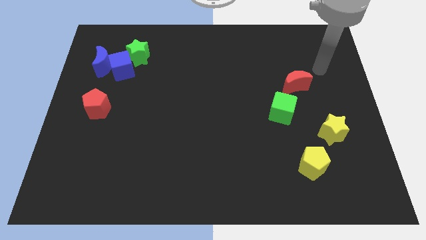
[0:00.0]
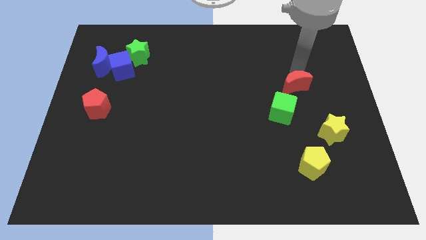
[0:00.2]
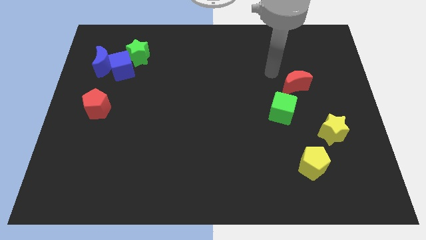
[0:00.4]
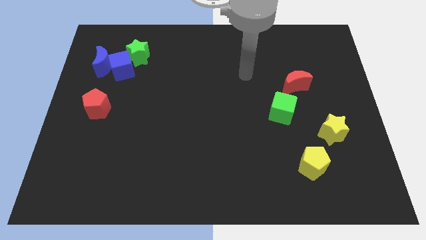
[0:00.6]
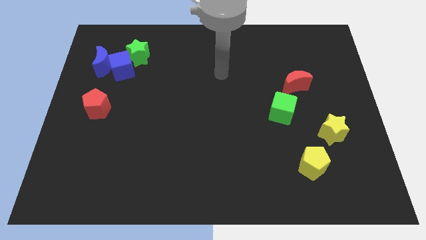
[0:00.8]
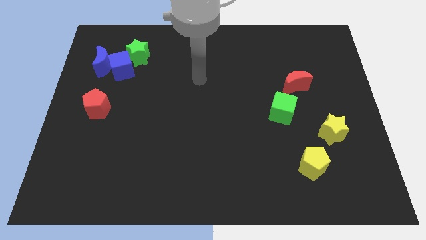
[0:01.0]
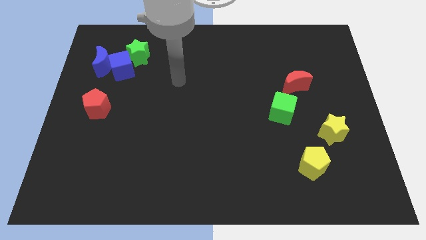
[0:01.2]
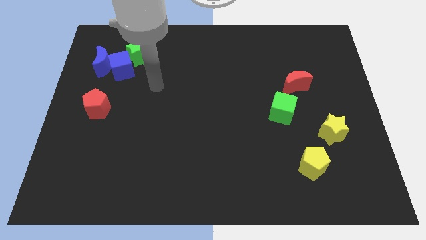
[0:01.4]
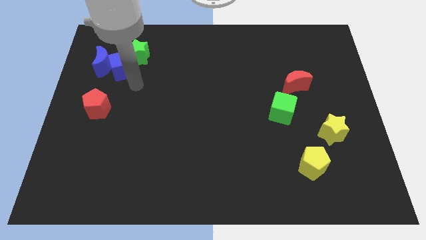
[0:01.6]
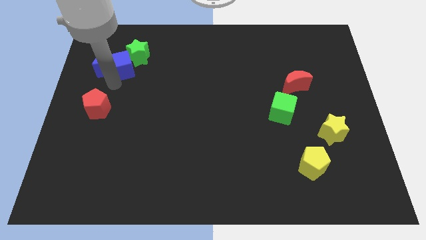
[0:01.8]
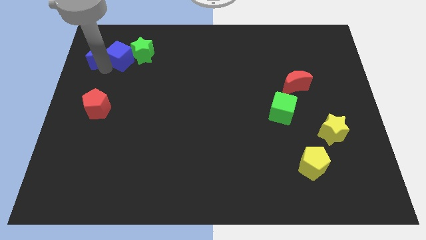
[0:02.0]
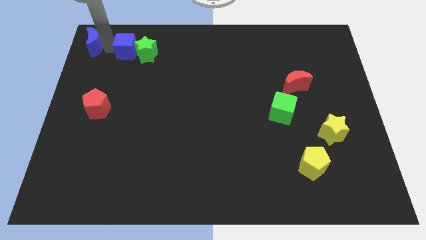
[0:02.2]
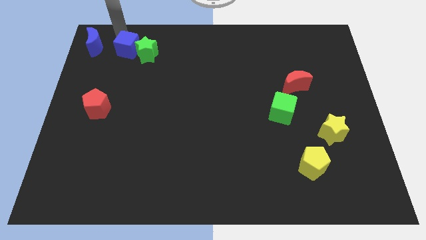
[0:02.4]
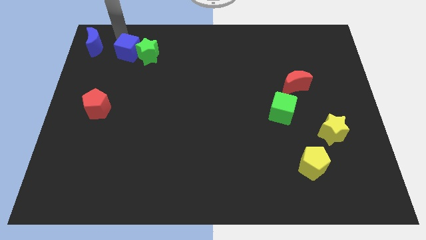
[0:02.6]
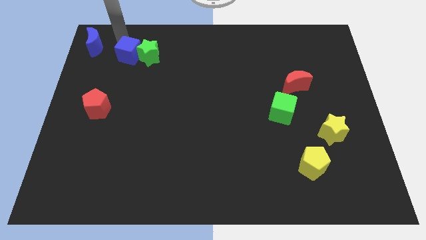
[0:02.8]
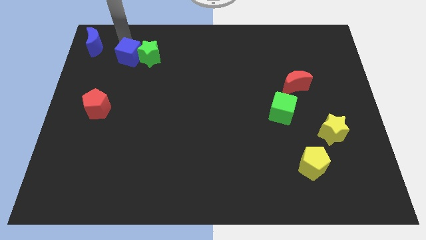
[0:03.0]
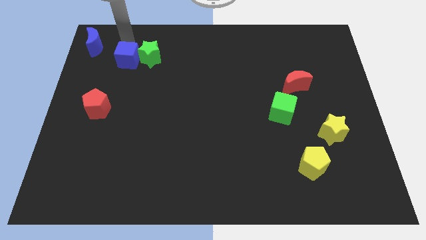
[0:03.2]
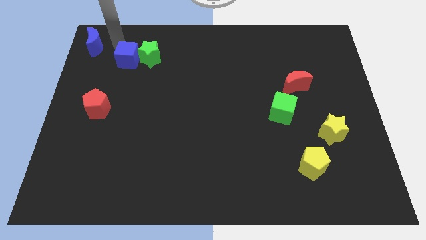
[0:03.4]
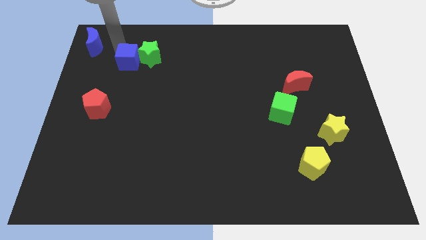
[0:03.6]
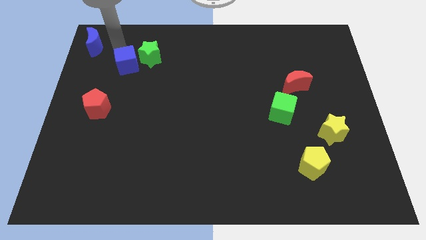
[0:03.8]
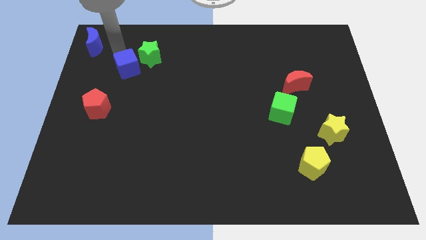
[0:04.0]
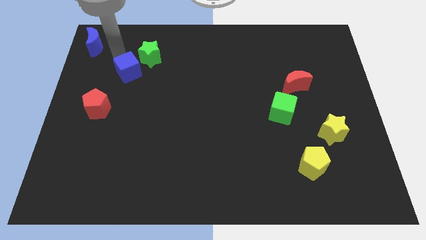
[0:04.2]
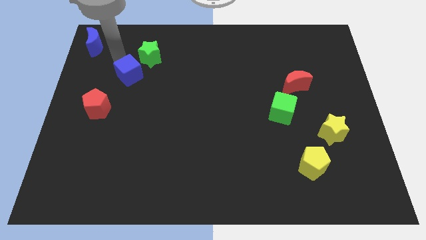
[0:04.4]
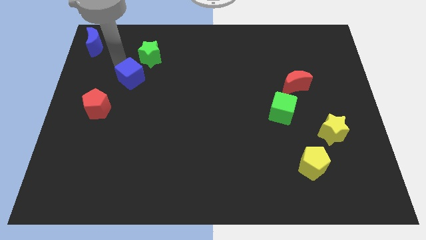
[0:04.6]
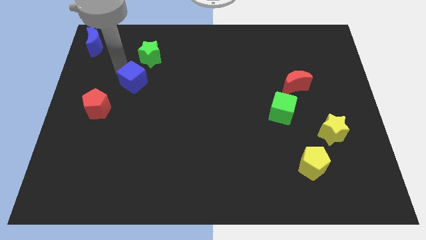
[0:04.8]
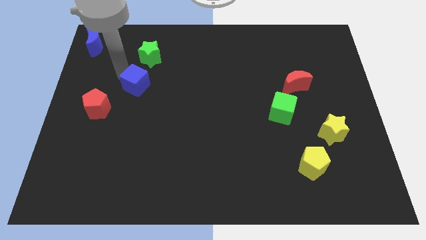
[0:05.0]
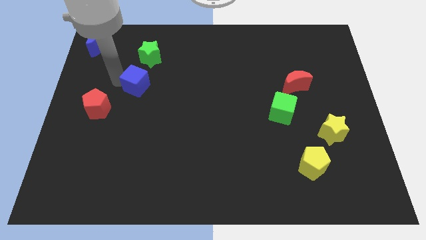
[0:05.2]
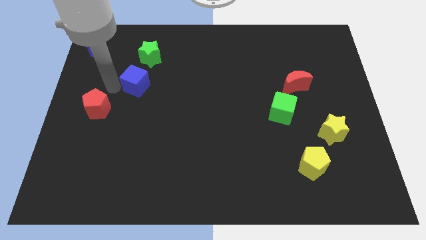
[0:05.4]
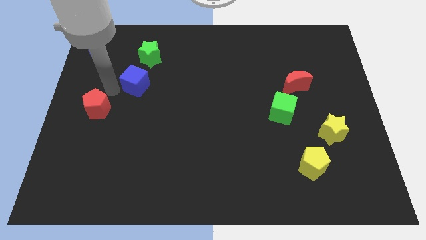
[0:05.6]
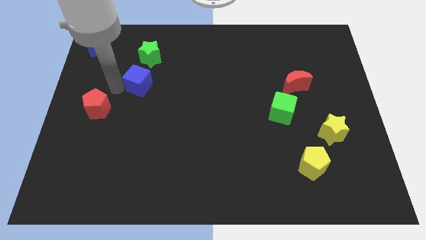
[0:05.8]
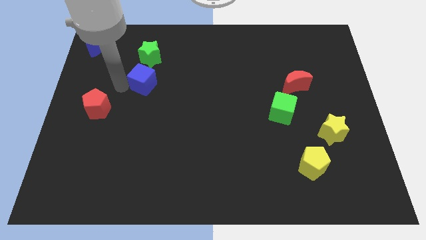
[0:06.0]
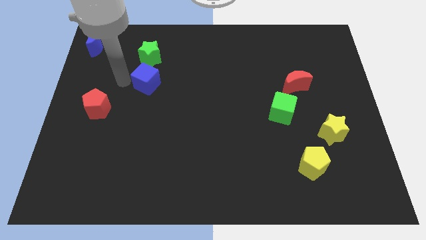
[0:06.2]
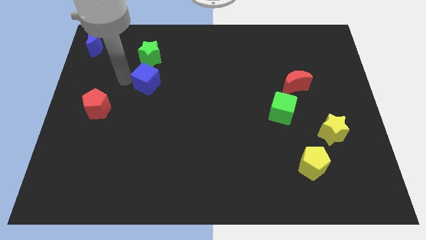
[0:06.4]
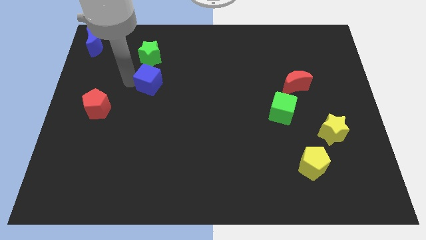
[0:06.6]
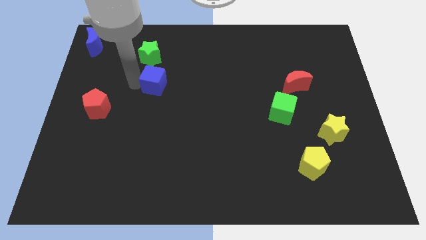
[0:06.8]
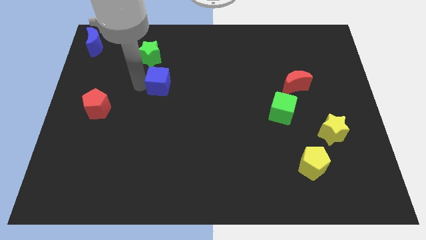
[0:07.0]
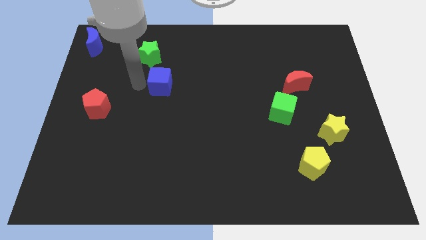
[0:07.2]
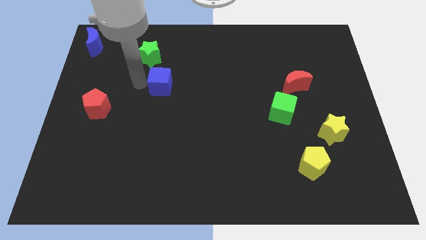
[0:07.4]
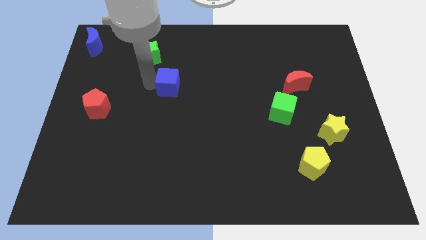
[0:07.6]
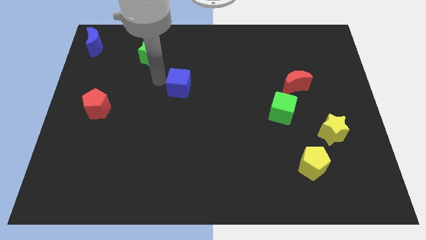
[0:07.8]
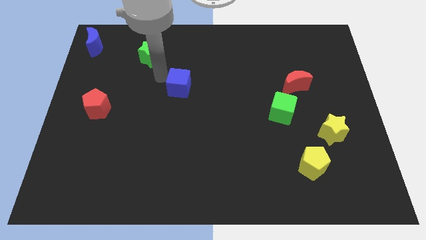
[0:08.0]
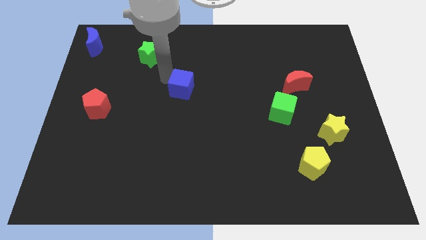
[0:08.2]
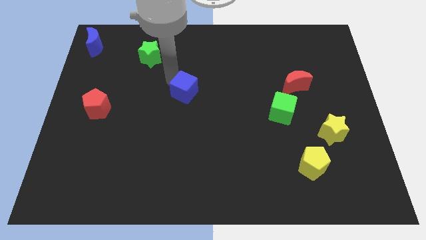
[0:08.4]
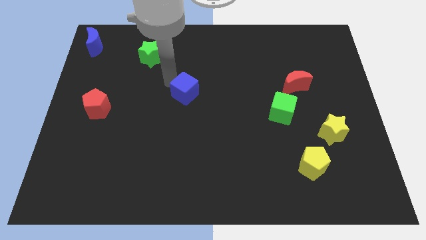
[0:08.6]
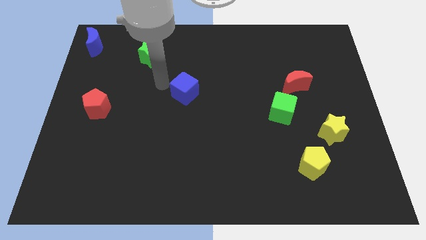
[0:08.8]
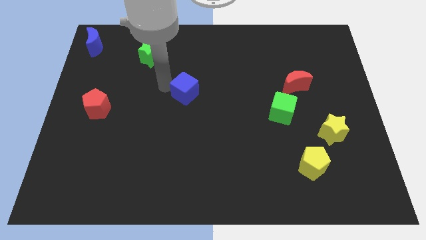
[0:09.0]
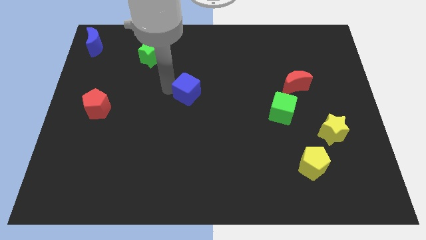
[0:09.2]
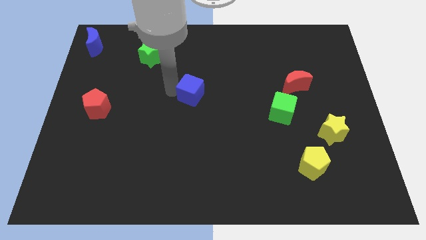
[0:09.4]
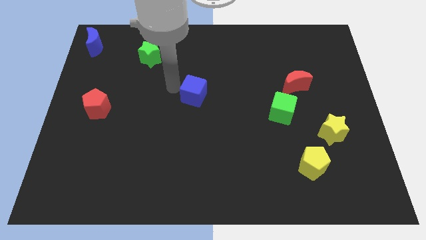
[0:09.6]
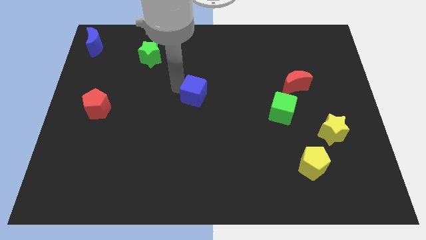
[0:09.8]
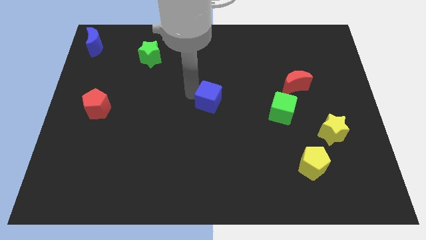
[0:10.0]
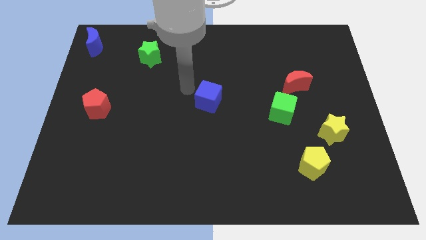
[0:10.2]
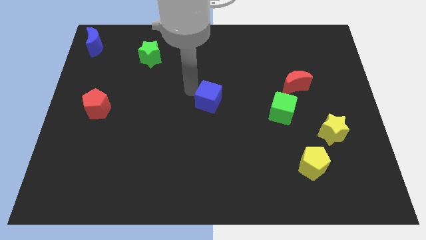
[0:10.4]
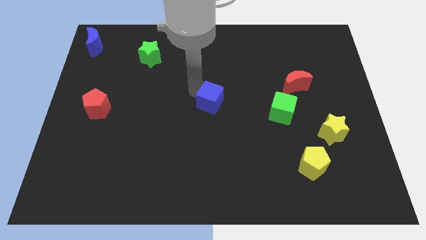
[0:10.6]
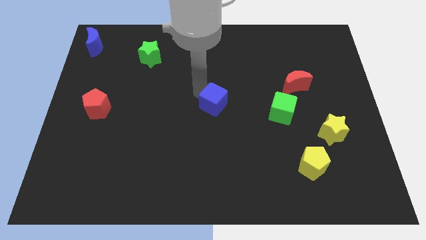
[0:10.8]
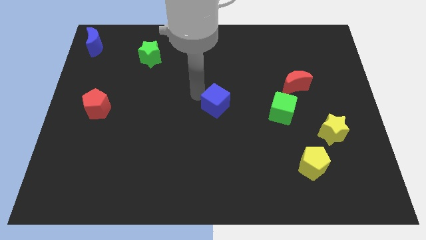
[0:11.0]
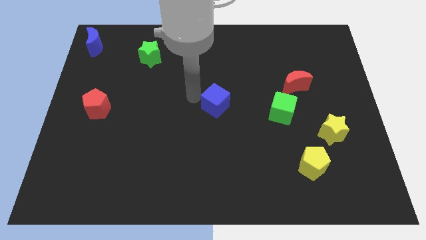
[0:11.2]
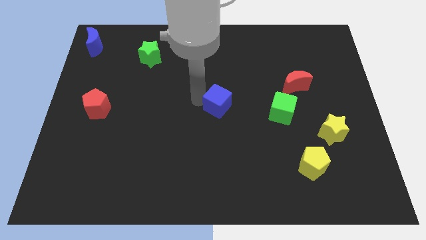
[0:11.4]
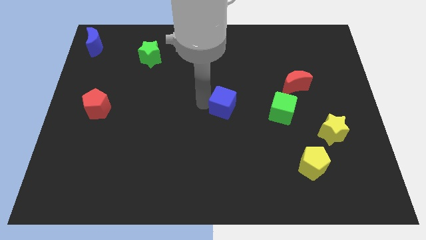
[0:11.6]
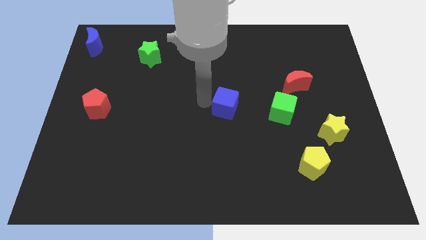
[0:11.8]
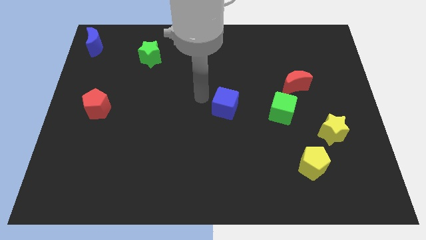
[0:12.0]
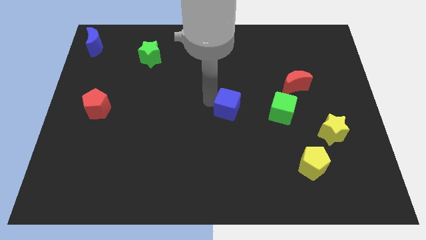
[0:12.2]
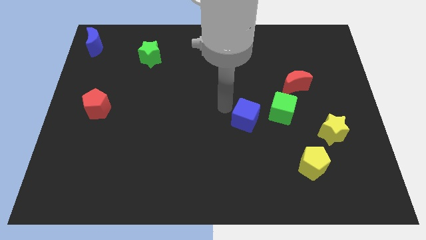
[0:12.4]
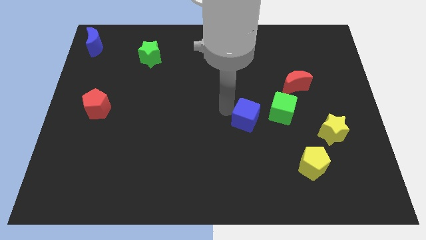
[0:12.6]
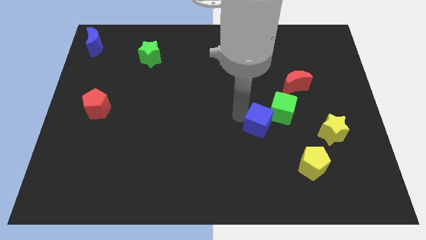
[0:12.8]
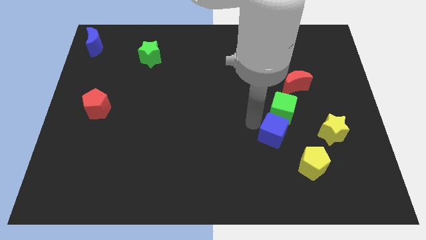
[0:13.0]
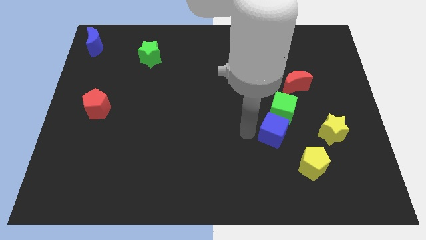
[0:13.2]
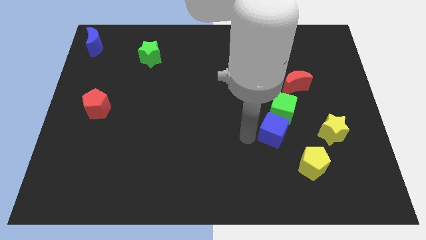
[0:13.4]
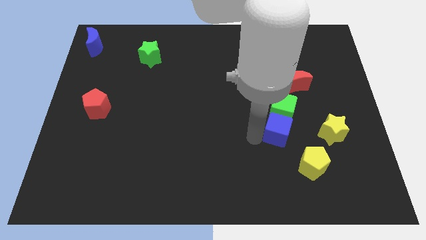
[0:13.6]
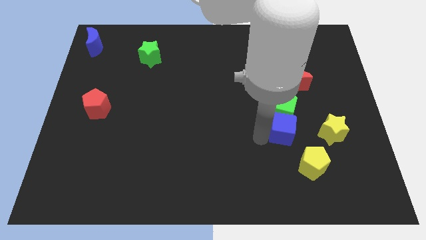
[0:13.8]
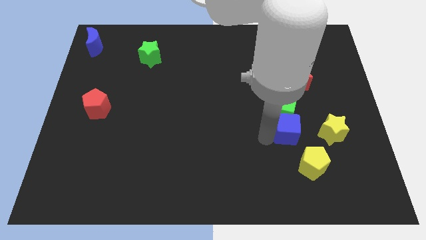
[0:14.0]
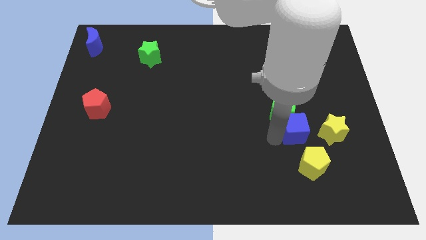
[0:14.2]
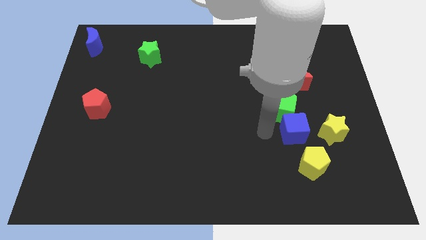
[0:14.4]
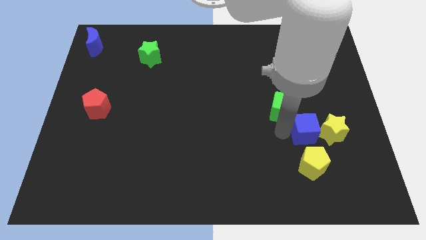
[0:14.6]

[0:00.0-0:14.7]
push the blue cube towards the yellow star
